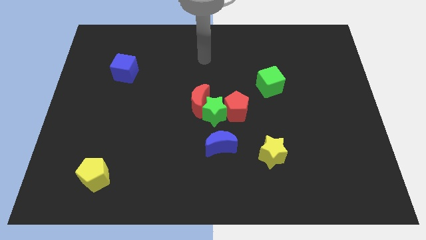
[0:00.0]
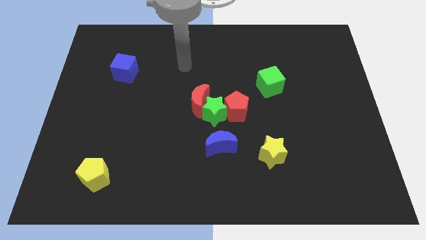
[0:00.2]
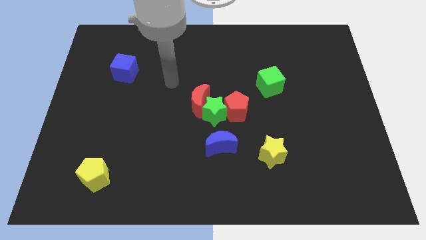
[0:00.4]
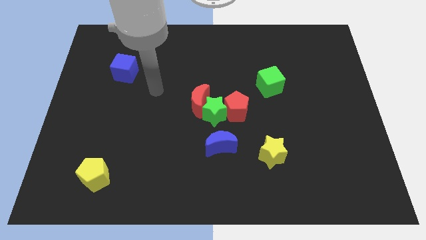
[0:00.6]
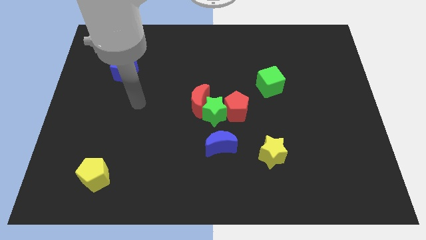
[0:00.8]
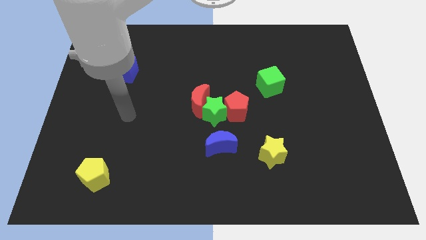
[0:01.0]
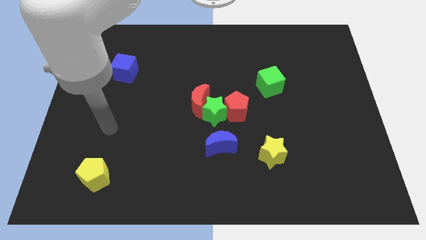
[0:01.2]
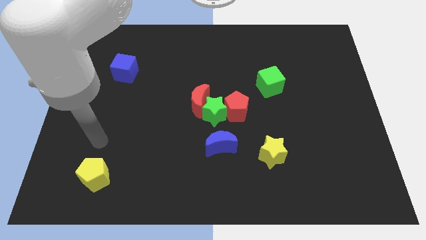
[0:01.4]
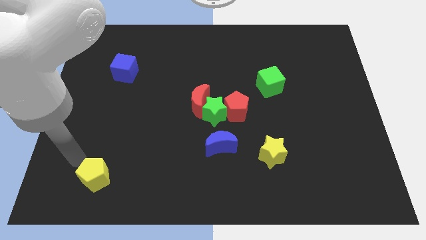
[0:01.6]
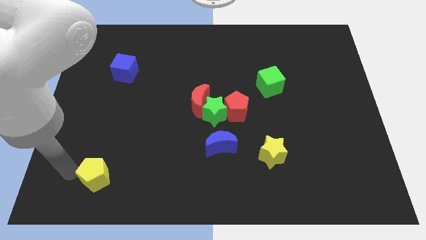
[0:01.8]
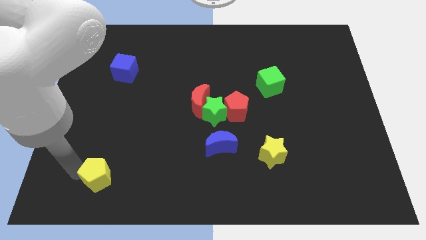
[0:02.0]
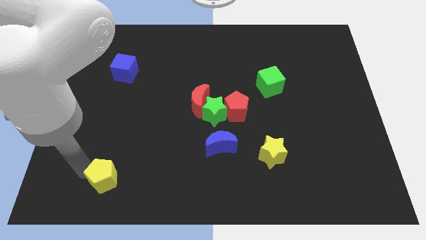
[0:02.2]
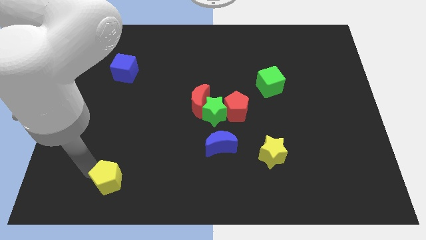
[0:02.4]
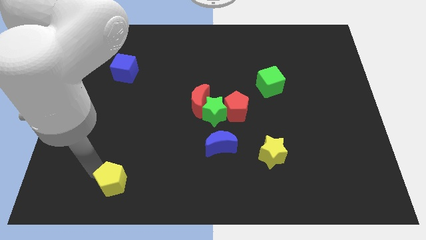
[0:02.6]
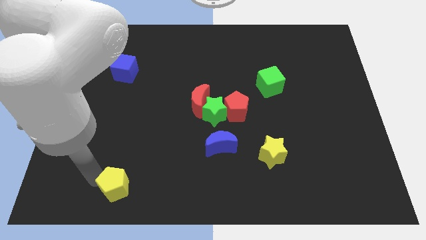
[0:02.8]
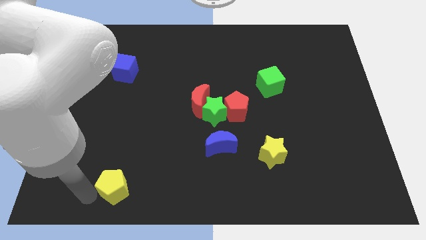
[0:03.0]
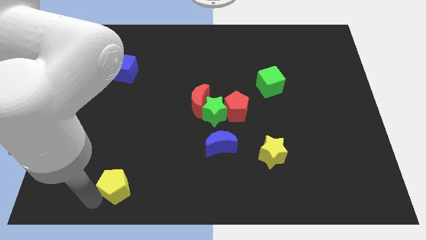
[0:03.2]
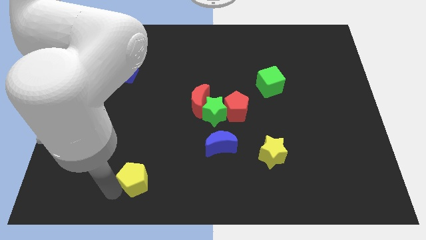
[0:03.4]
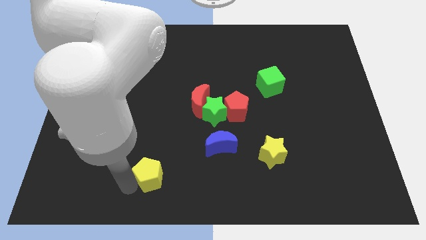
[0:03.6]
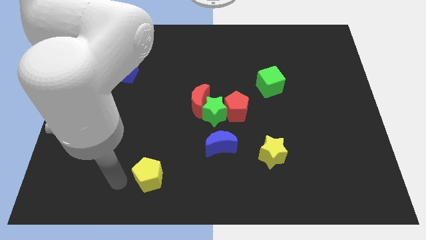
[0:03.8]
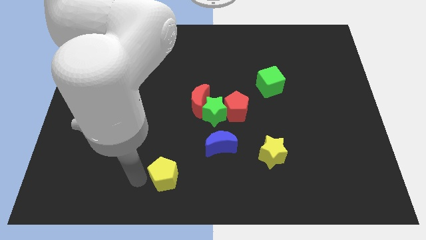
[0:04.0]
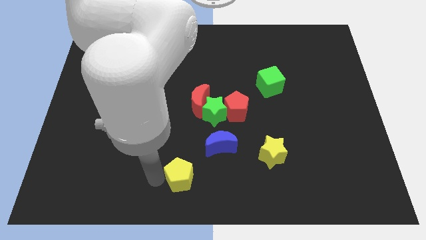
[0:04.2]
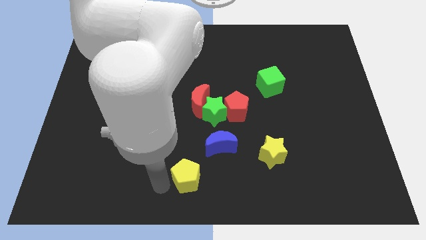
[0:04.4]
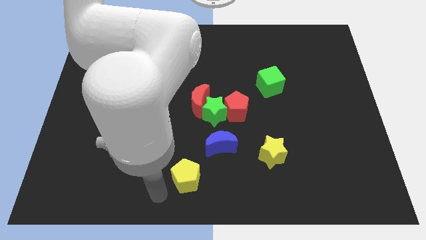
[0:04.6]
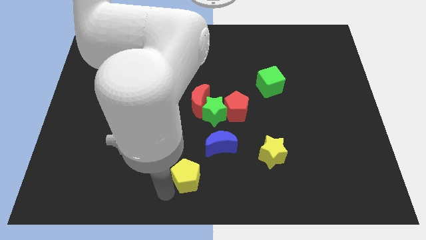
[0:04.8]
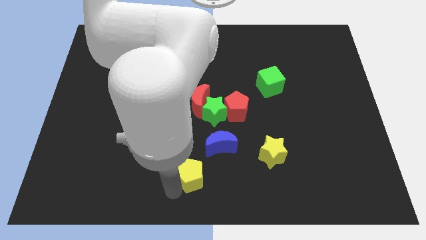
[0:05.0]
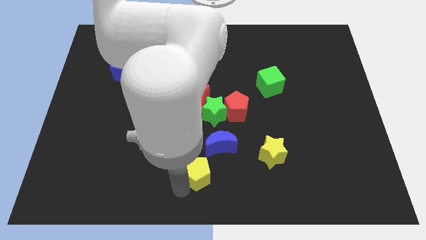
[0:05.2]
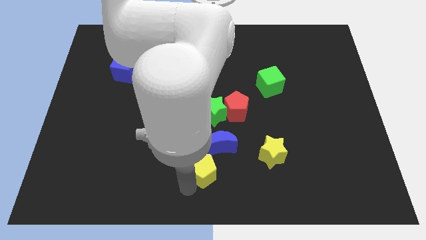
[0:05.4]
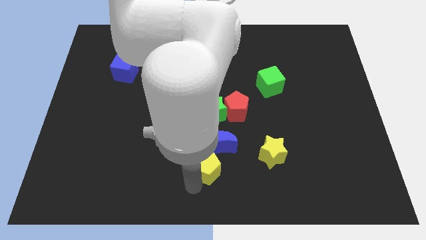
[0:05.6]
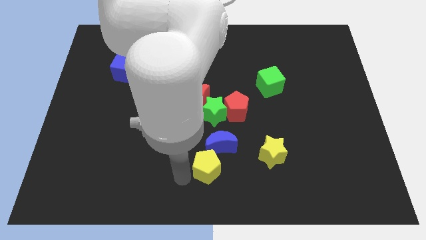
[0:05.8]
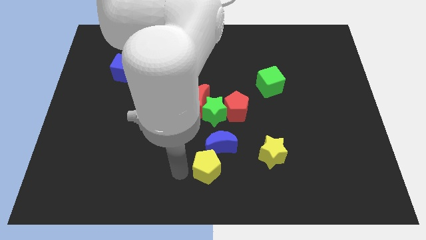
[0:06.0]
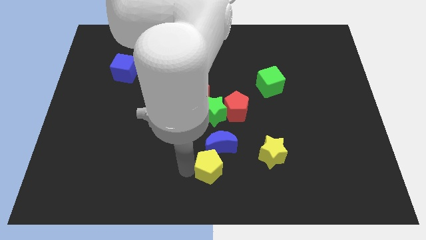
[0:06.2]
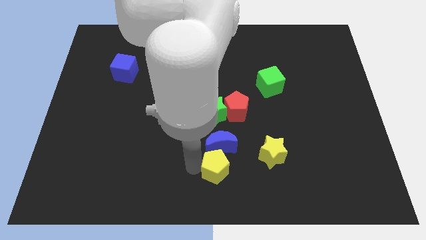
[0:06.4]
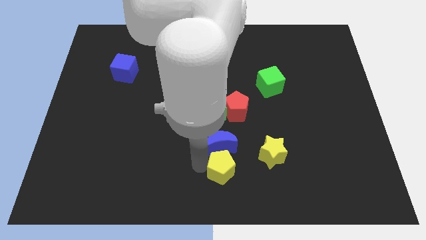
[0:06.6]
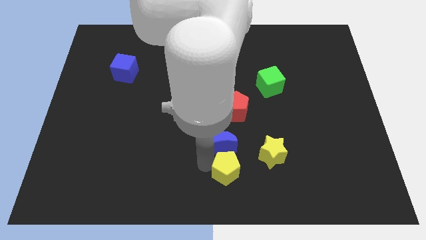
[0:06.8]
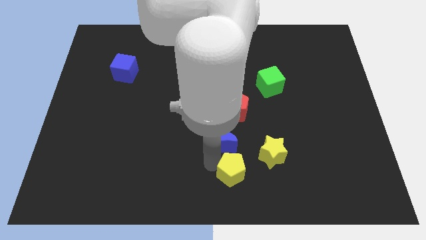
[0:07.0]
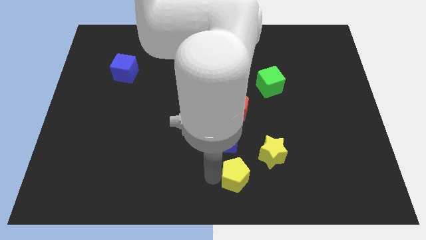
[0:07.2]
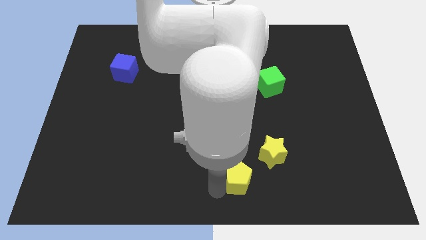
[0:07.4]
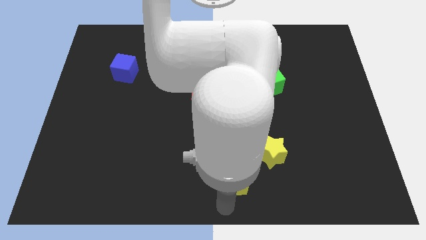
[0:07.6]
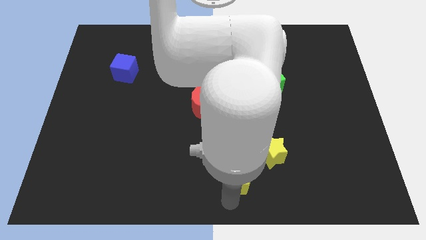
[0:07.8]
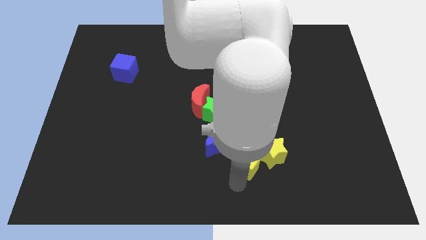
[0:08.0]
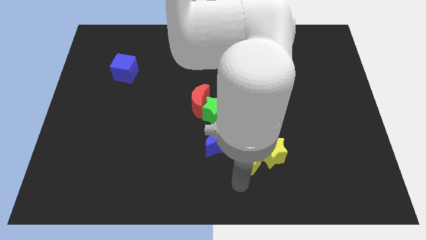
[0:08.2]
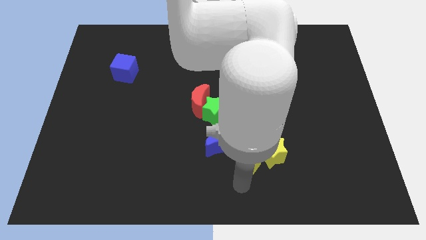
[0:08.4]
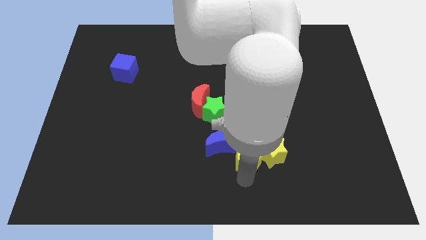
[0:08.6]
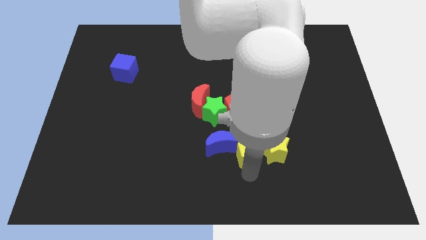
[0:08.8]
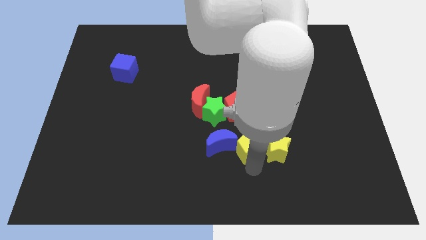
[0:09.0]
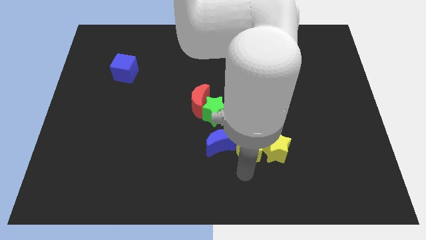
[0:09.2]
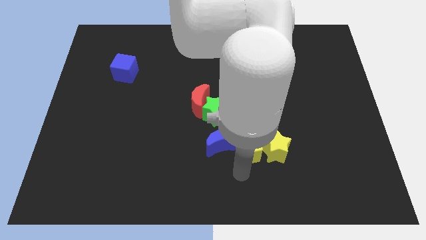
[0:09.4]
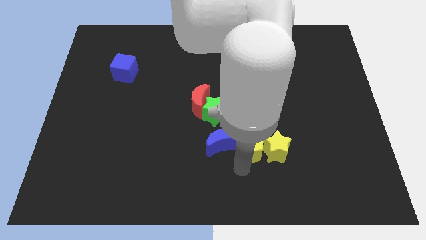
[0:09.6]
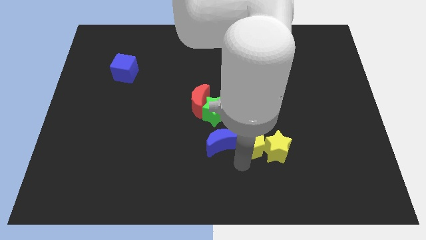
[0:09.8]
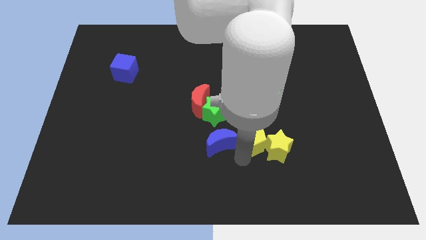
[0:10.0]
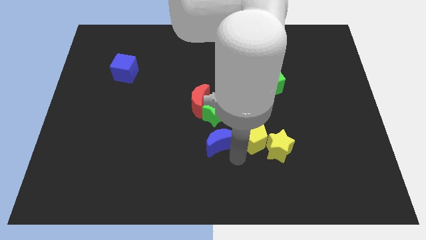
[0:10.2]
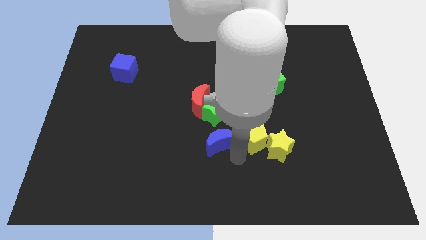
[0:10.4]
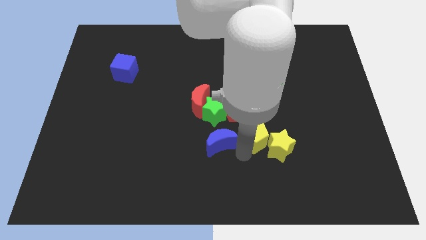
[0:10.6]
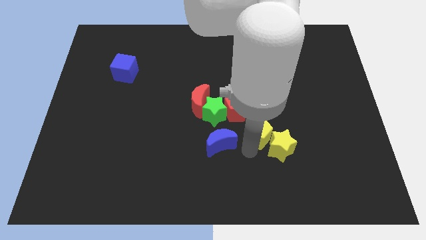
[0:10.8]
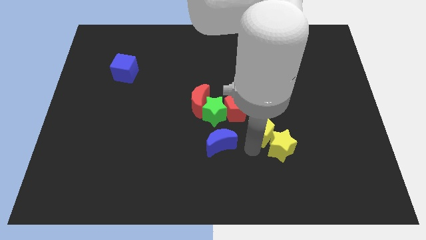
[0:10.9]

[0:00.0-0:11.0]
move the yellow pentagon to the bottom of the green cube

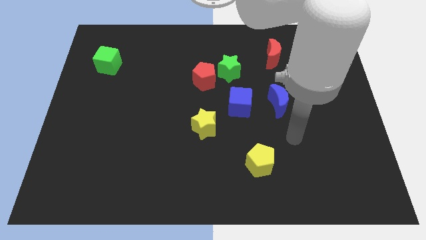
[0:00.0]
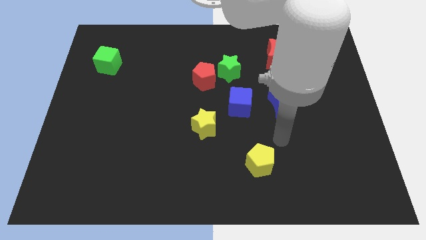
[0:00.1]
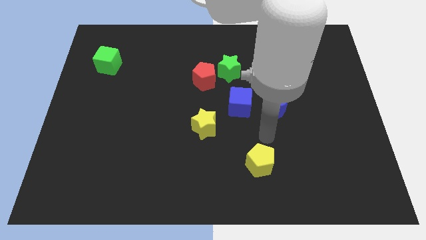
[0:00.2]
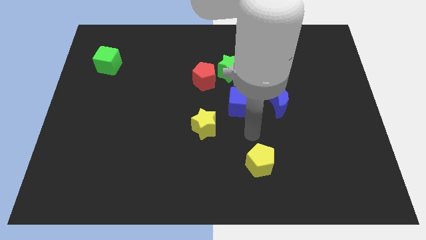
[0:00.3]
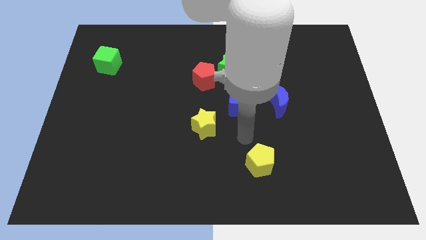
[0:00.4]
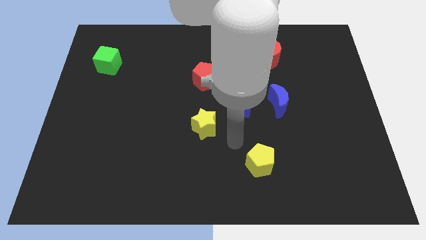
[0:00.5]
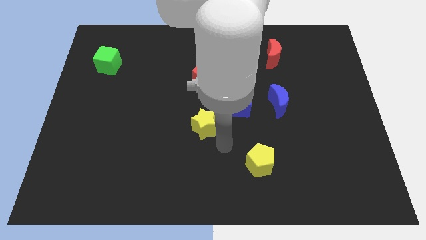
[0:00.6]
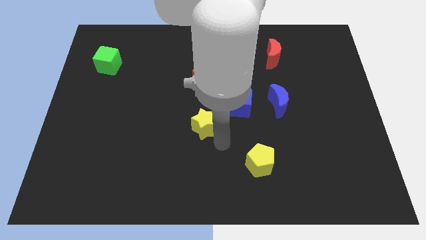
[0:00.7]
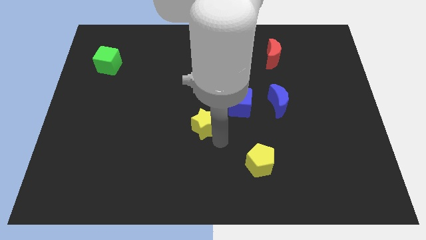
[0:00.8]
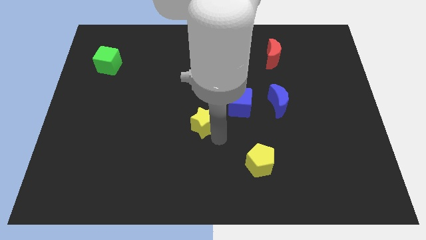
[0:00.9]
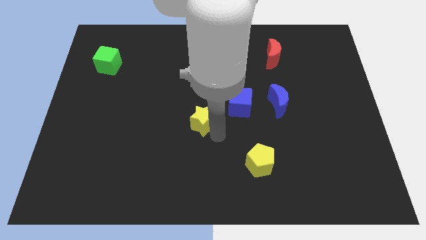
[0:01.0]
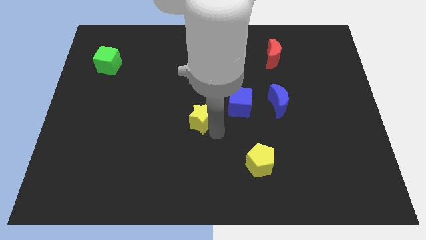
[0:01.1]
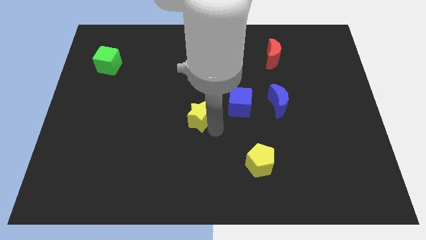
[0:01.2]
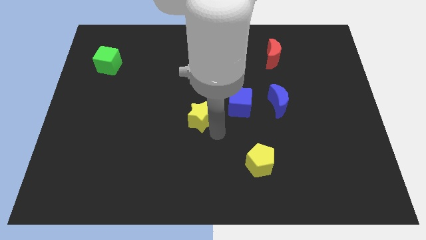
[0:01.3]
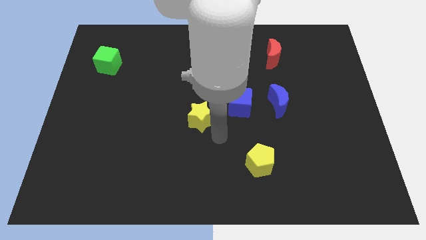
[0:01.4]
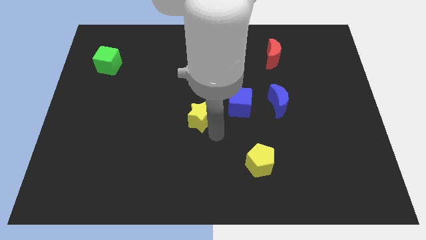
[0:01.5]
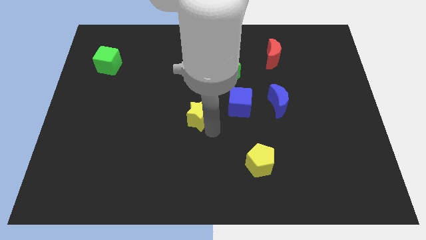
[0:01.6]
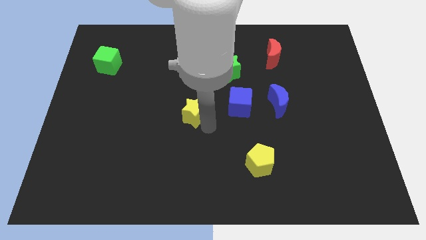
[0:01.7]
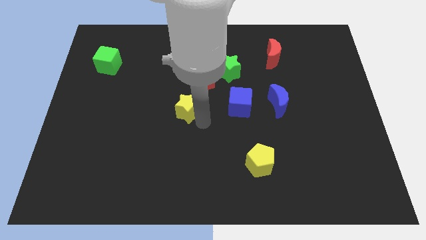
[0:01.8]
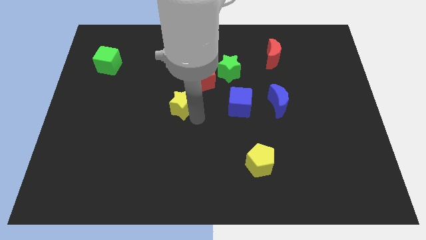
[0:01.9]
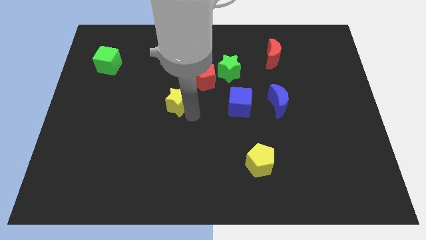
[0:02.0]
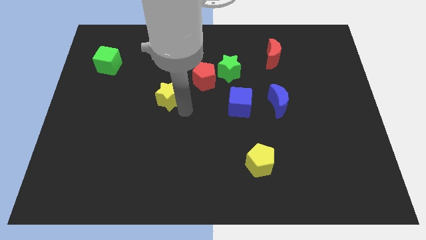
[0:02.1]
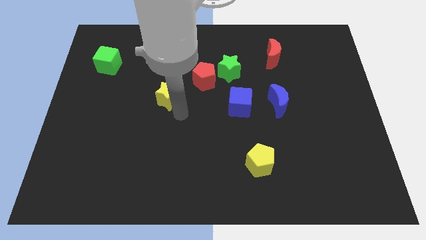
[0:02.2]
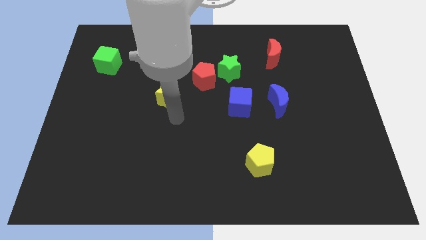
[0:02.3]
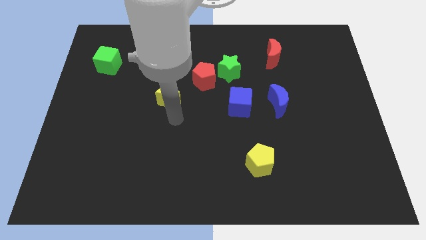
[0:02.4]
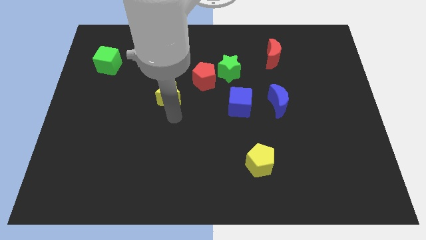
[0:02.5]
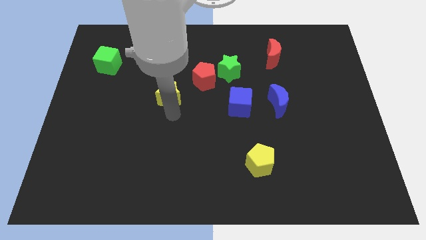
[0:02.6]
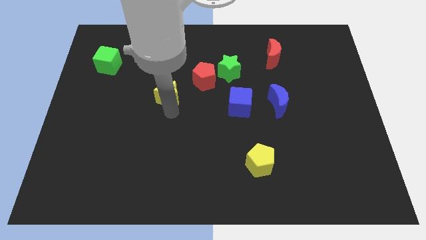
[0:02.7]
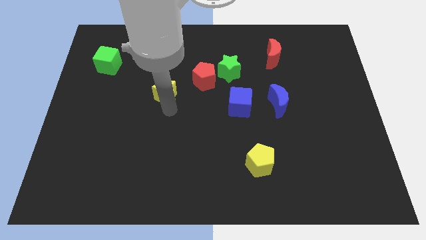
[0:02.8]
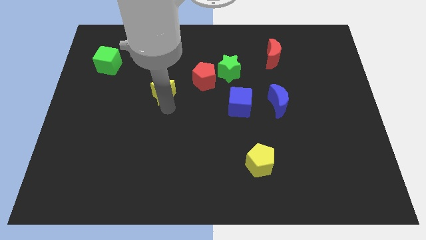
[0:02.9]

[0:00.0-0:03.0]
put the yellow star to the left side of the red pentagon
